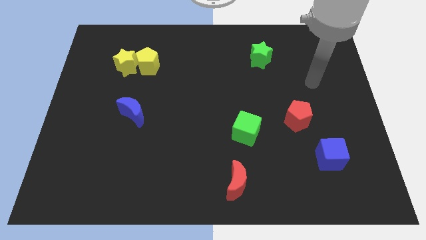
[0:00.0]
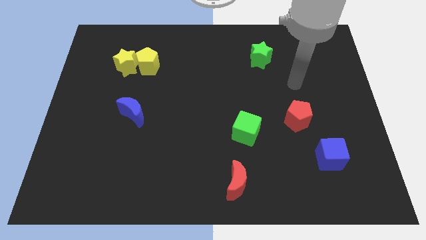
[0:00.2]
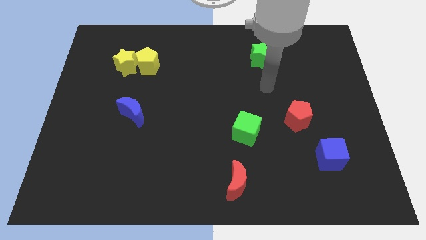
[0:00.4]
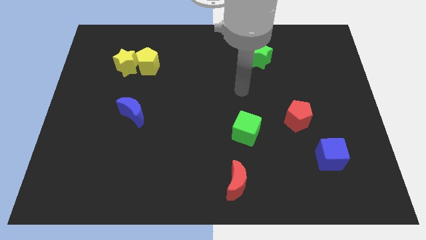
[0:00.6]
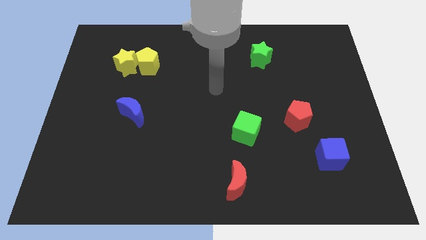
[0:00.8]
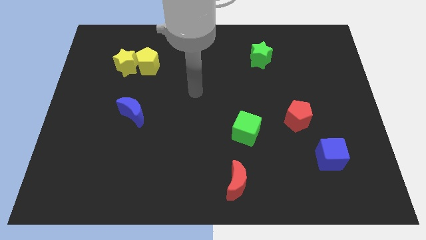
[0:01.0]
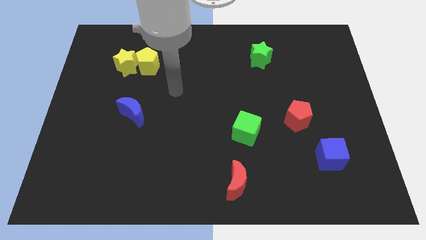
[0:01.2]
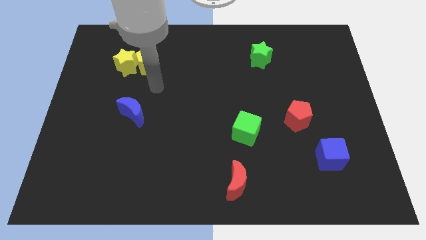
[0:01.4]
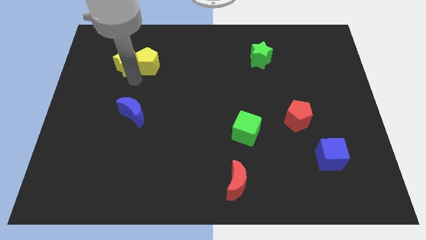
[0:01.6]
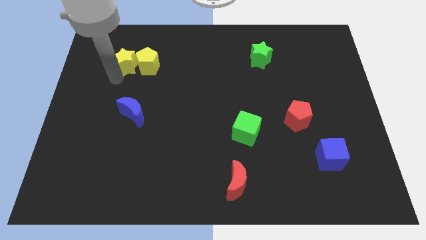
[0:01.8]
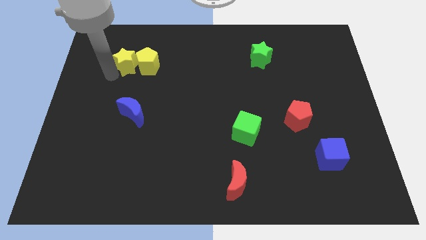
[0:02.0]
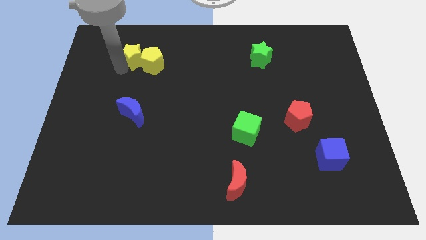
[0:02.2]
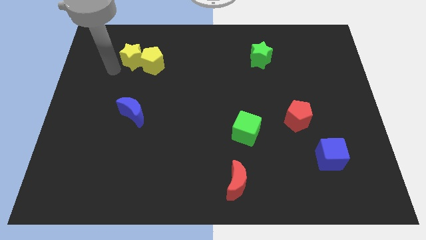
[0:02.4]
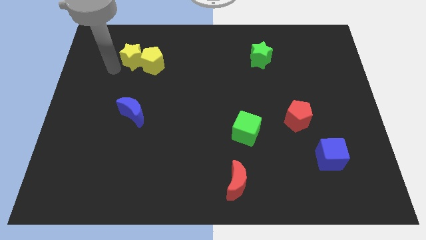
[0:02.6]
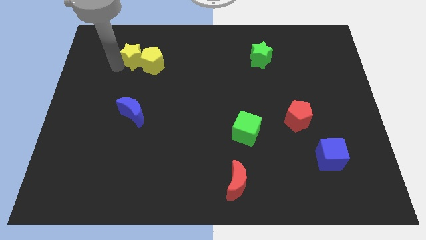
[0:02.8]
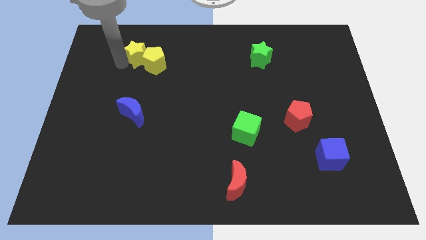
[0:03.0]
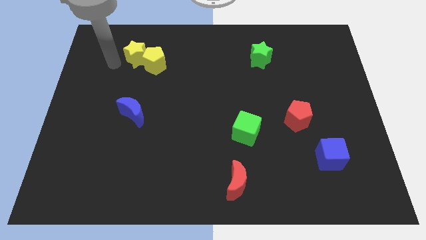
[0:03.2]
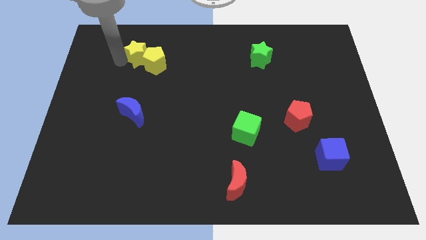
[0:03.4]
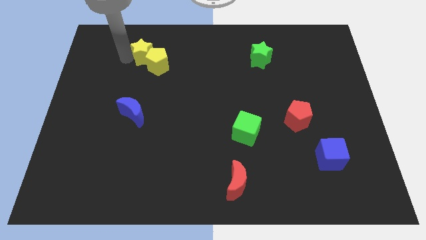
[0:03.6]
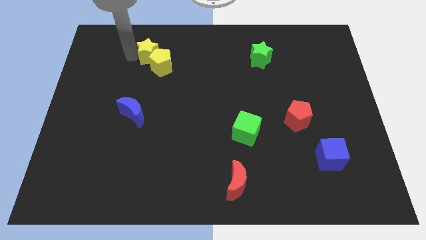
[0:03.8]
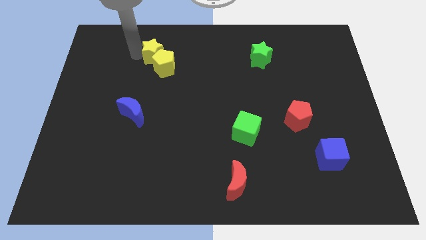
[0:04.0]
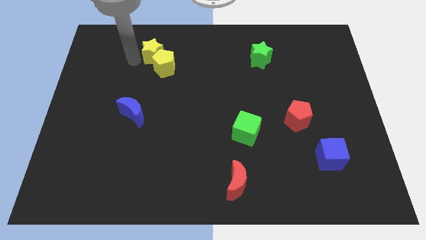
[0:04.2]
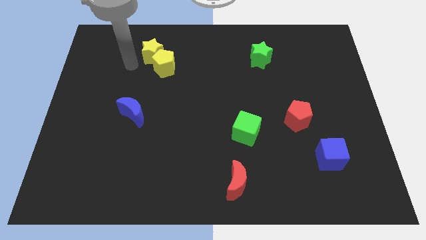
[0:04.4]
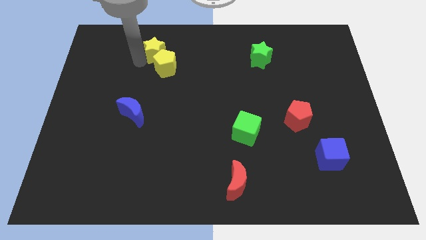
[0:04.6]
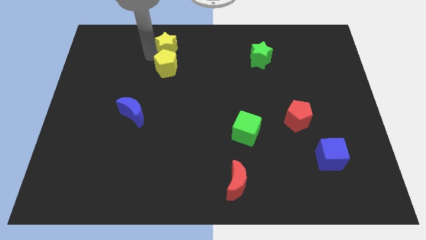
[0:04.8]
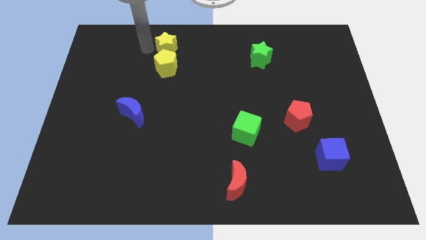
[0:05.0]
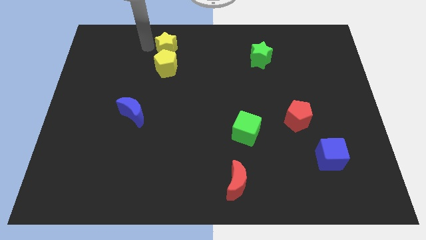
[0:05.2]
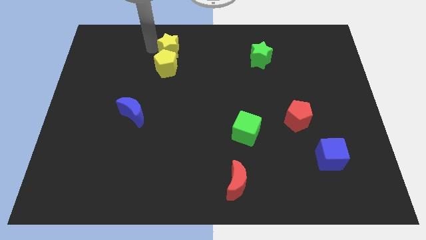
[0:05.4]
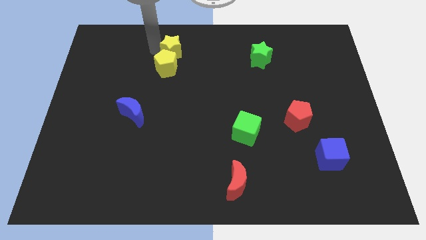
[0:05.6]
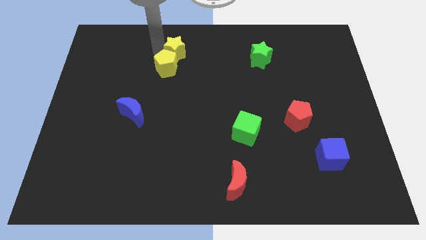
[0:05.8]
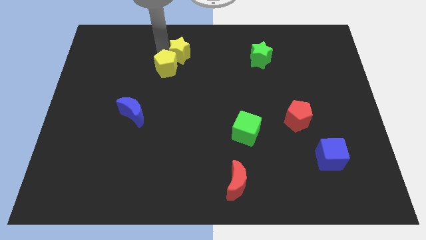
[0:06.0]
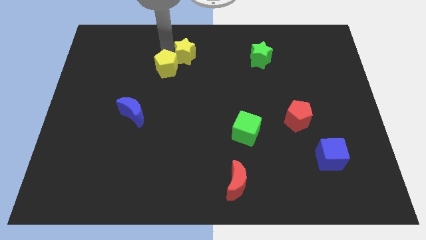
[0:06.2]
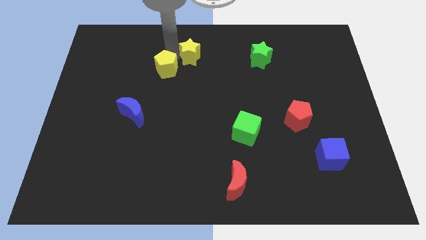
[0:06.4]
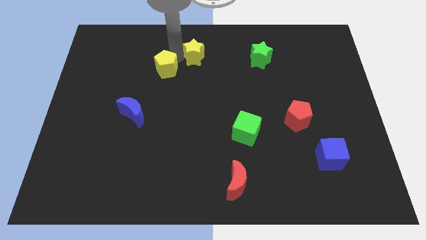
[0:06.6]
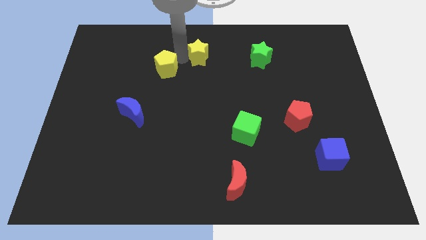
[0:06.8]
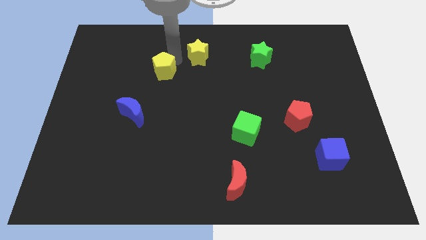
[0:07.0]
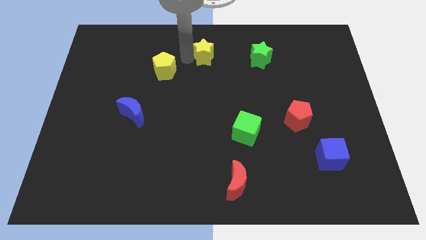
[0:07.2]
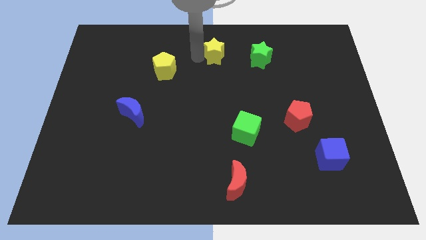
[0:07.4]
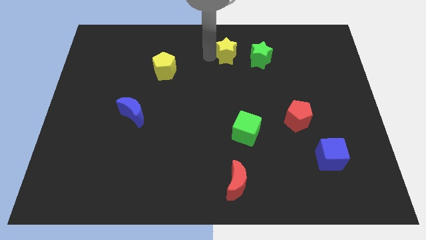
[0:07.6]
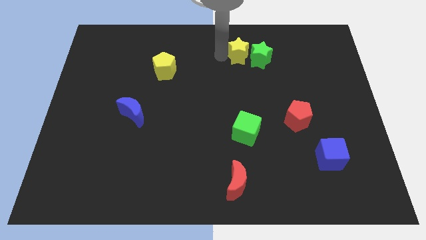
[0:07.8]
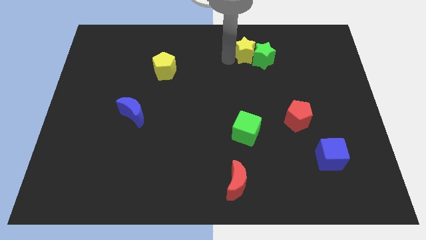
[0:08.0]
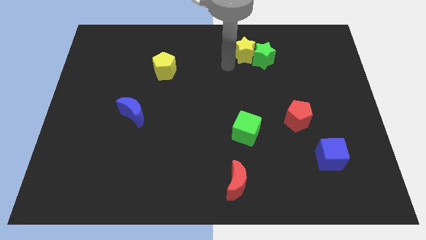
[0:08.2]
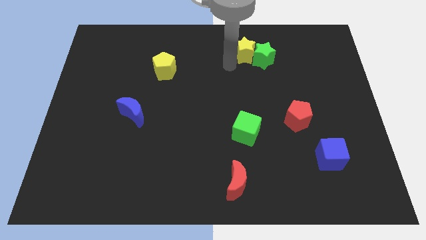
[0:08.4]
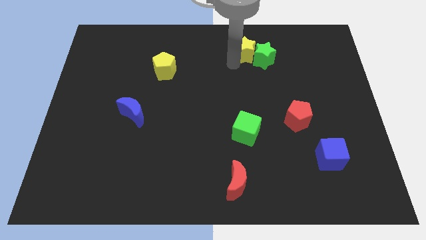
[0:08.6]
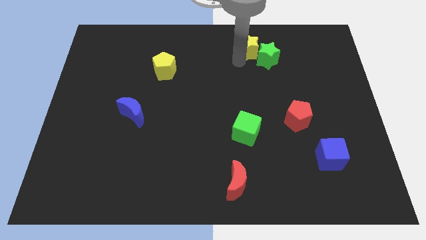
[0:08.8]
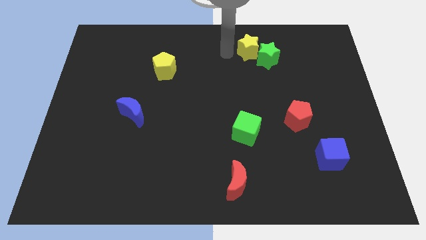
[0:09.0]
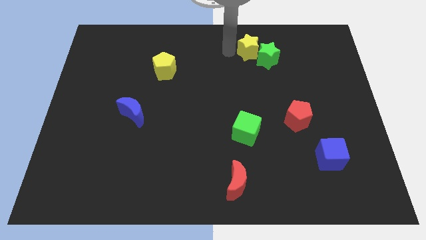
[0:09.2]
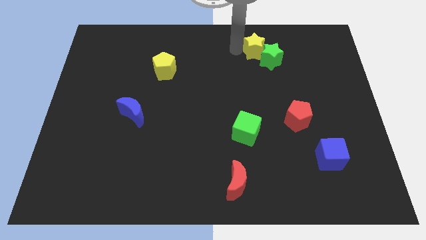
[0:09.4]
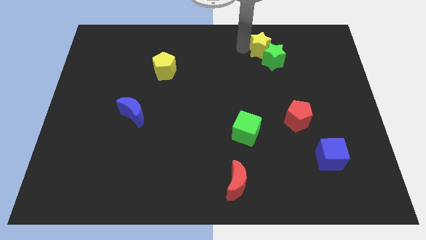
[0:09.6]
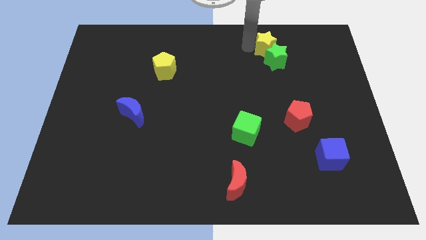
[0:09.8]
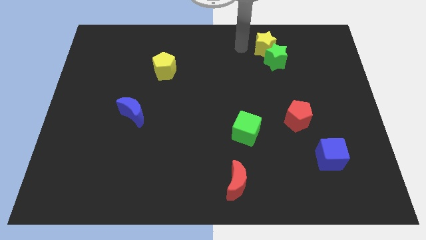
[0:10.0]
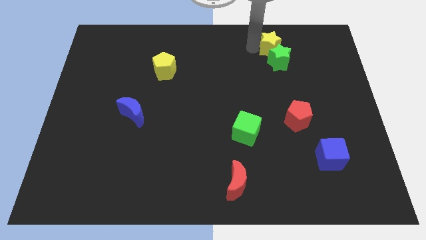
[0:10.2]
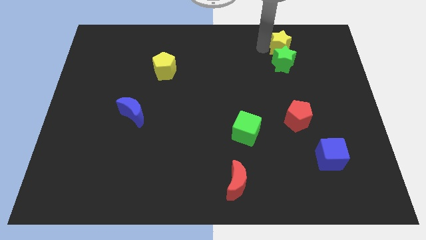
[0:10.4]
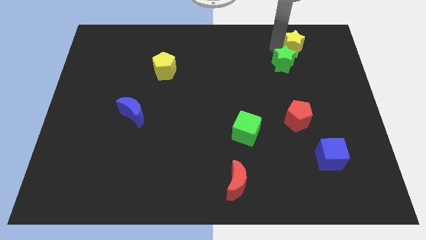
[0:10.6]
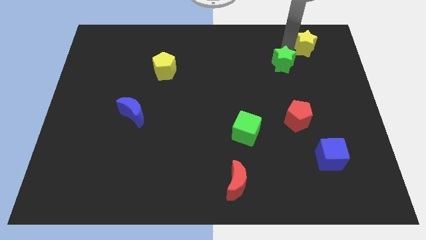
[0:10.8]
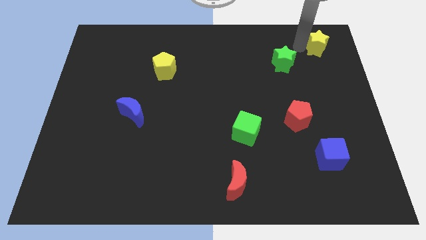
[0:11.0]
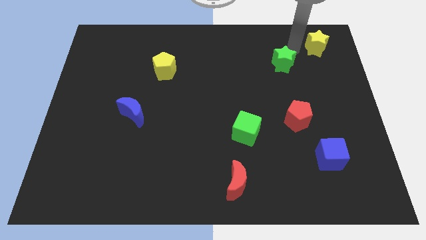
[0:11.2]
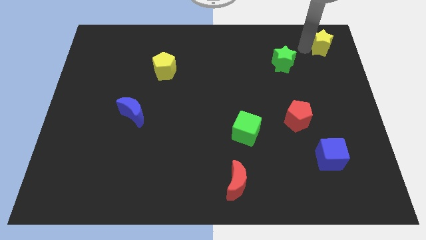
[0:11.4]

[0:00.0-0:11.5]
put the yellow star to the upper right corner
